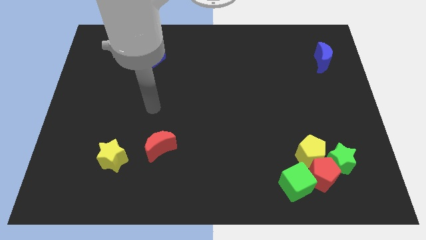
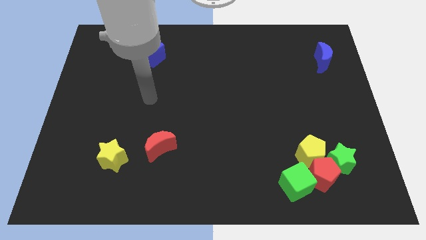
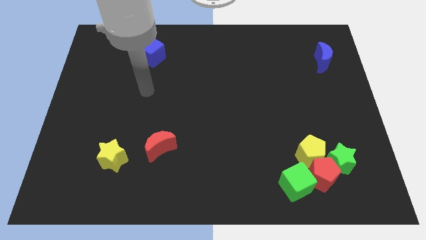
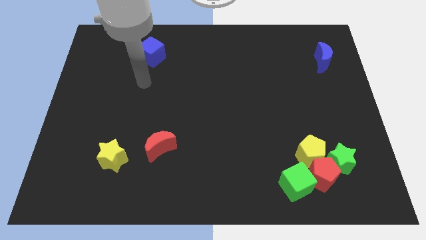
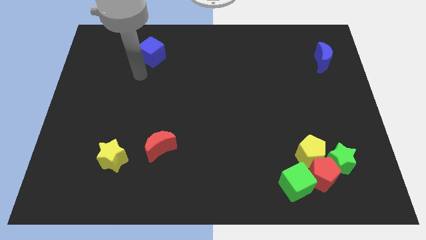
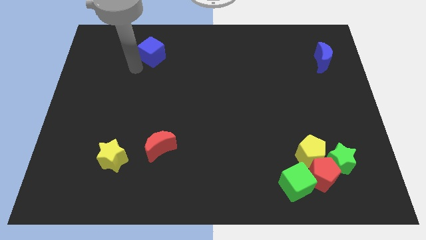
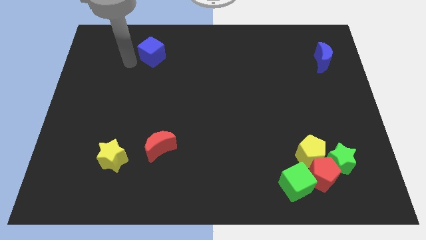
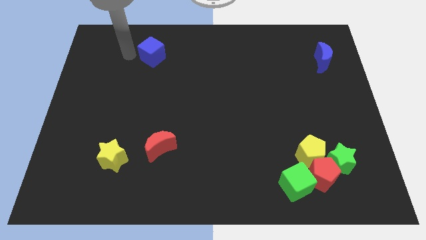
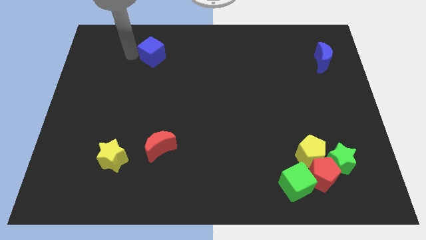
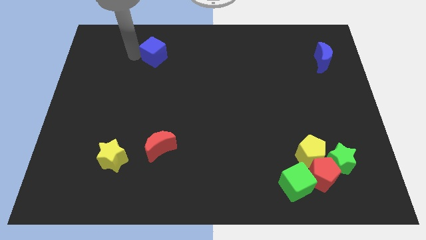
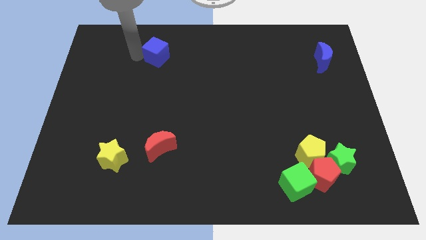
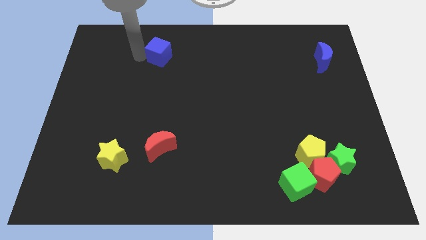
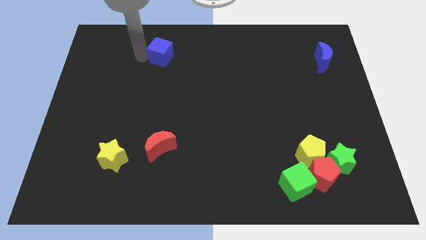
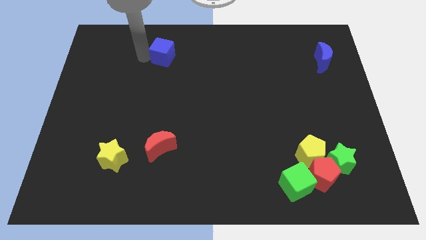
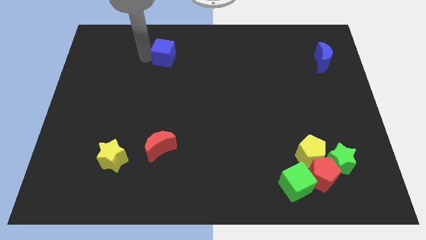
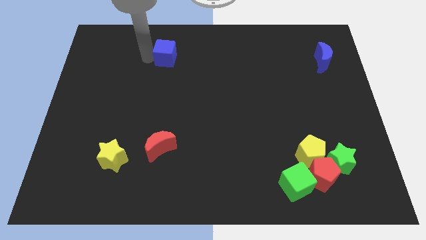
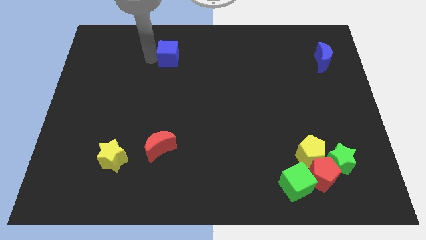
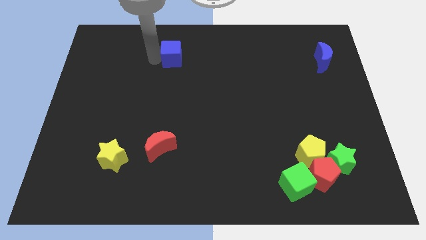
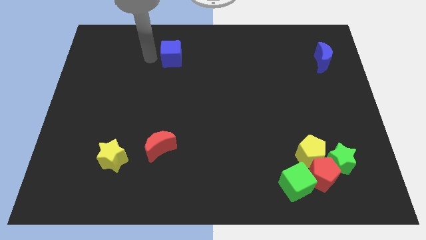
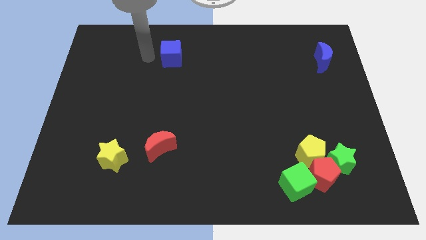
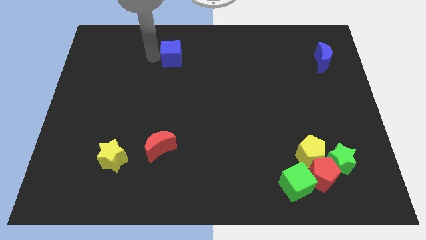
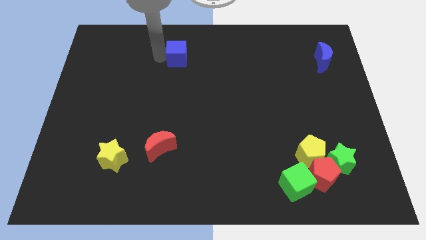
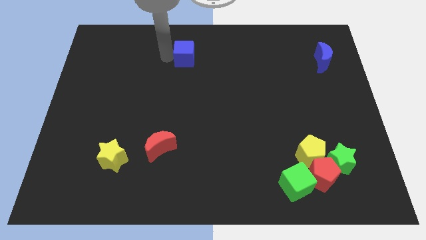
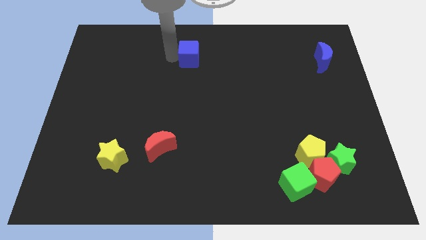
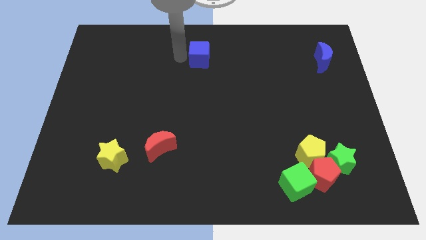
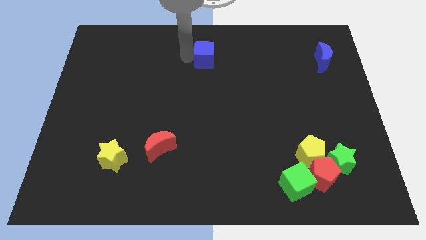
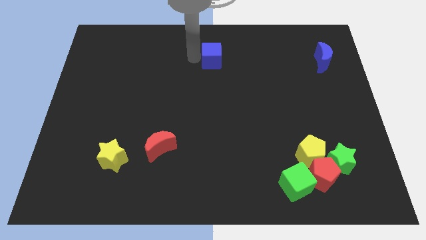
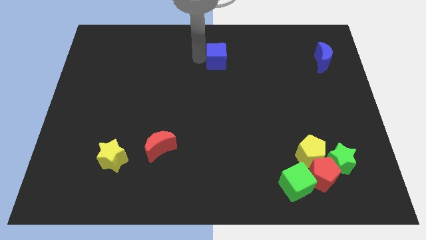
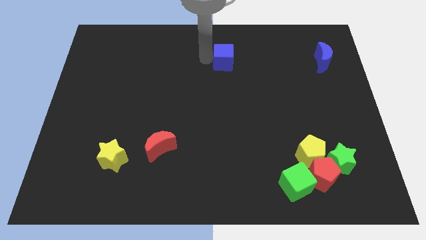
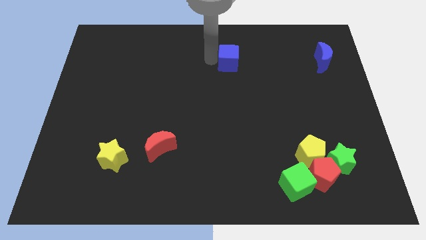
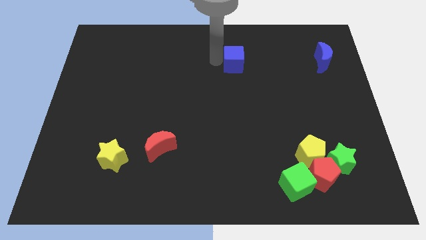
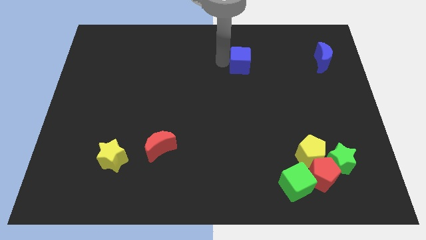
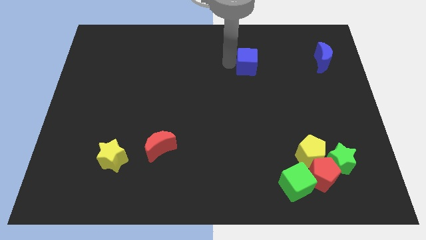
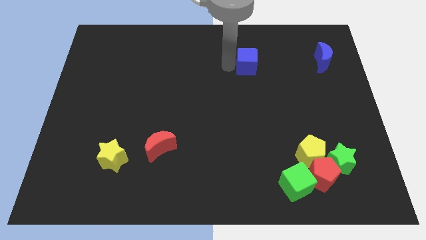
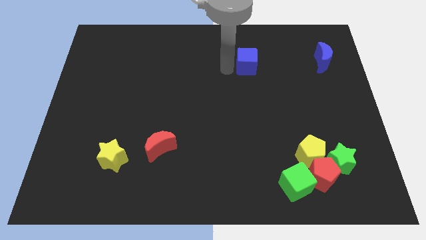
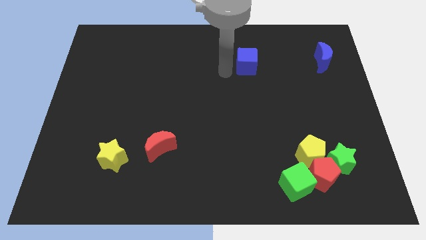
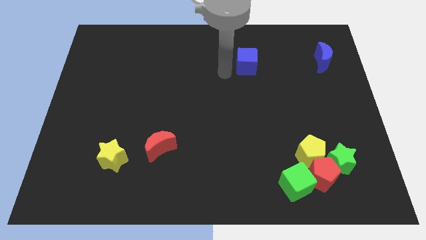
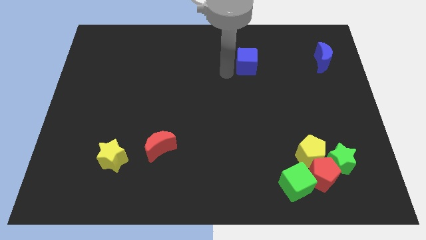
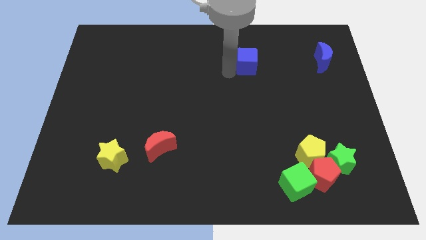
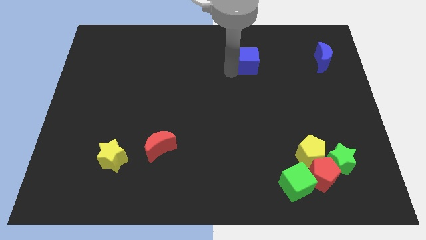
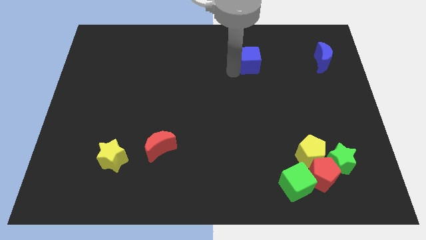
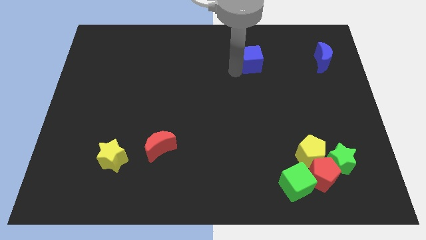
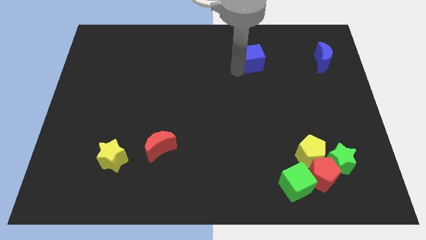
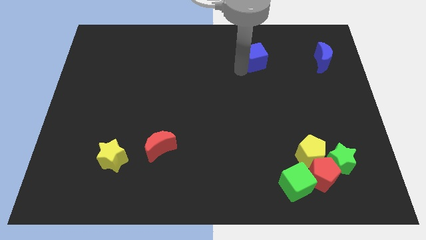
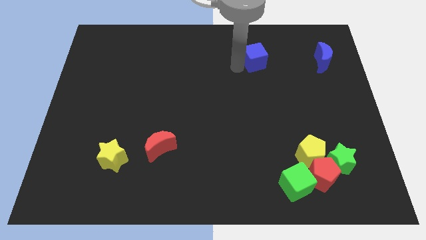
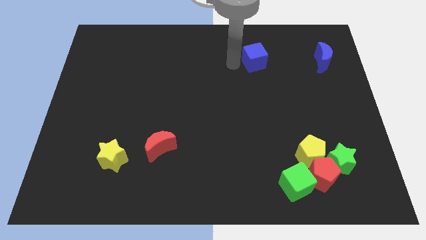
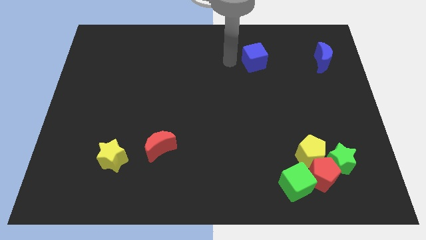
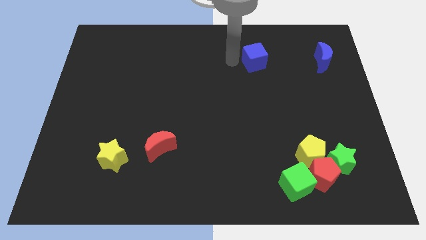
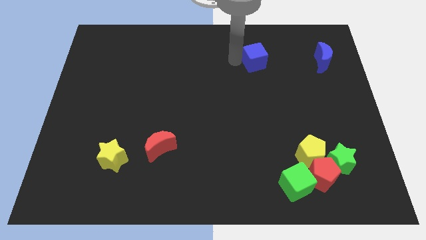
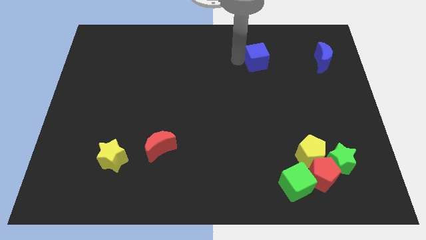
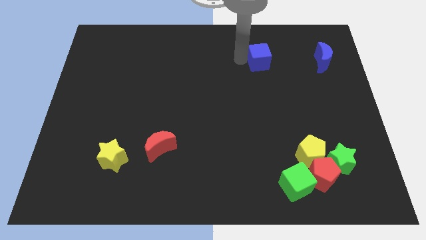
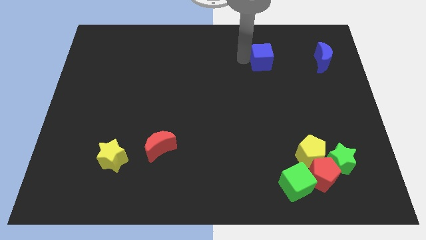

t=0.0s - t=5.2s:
move the blue cube just left of the blue moon
